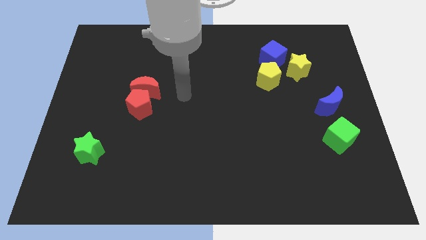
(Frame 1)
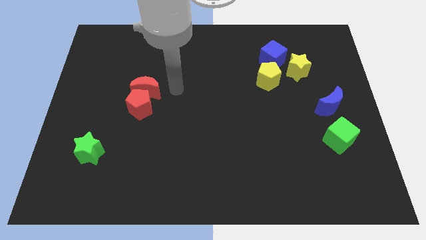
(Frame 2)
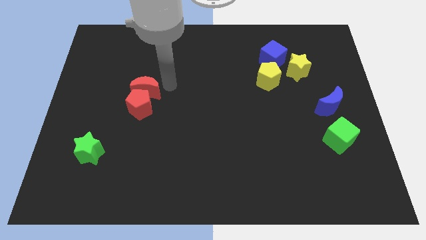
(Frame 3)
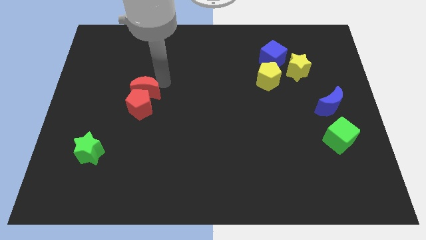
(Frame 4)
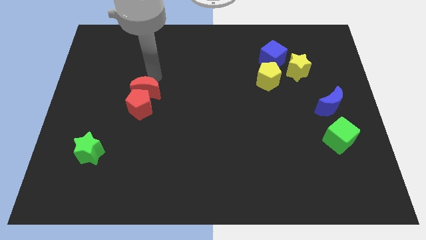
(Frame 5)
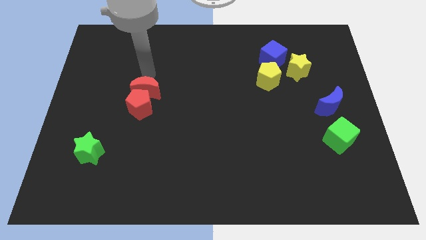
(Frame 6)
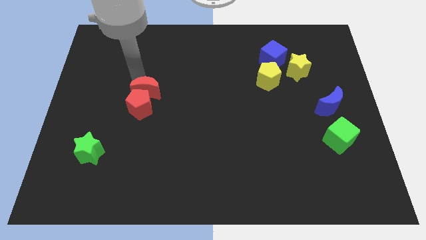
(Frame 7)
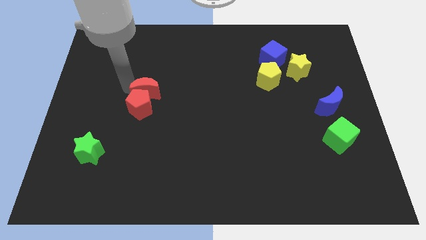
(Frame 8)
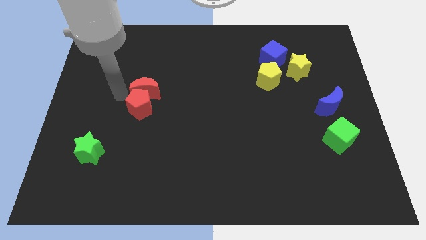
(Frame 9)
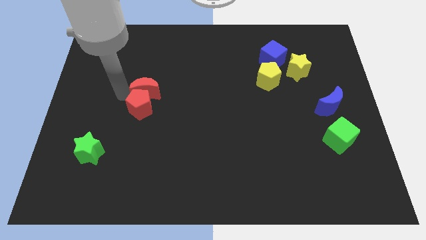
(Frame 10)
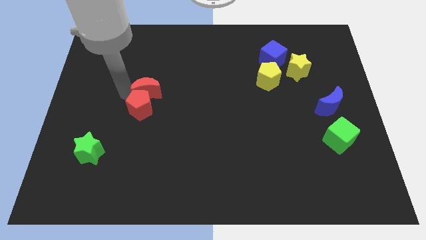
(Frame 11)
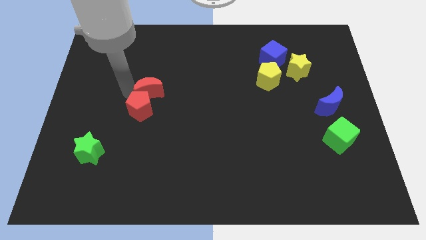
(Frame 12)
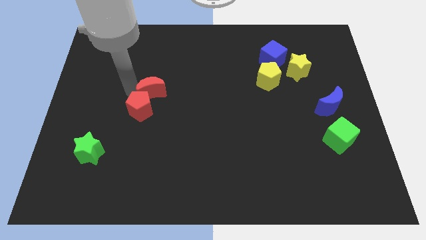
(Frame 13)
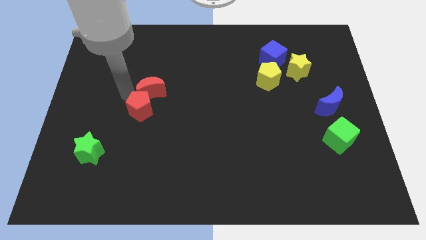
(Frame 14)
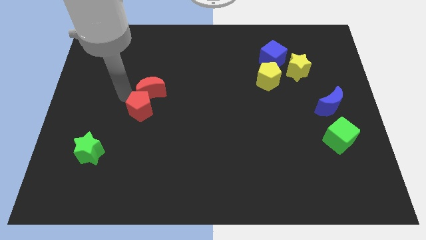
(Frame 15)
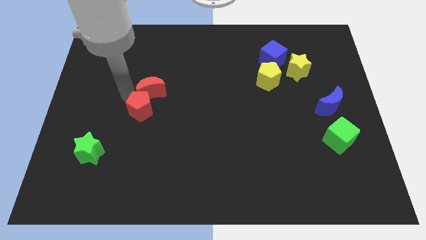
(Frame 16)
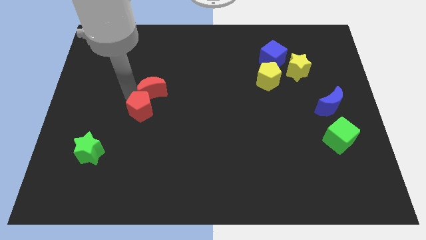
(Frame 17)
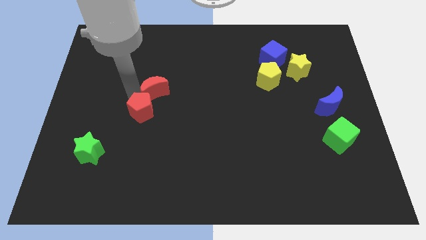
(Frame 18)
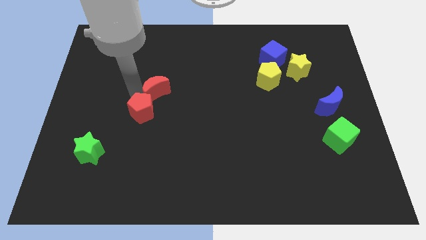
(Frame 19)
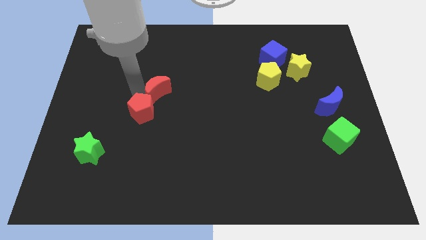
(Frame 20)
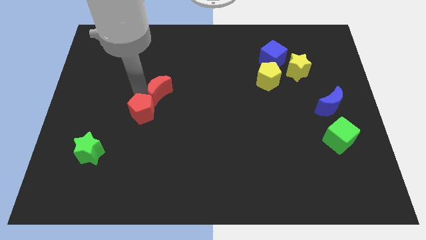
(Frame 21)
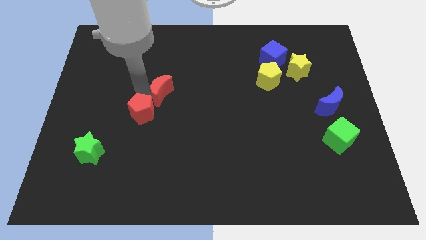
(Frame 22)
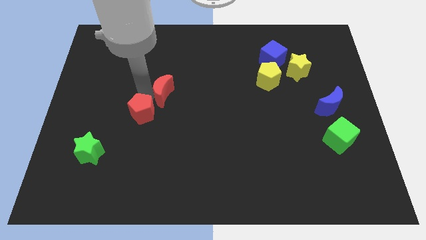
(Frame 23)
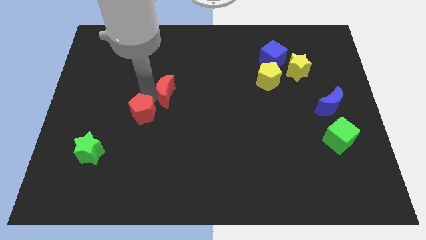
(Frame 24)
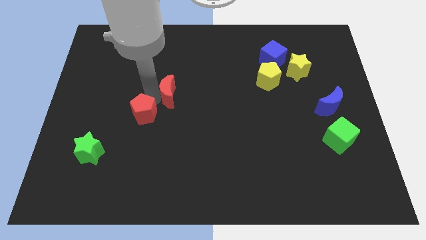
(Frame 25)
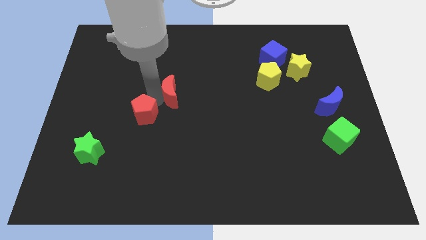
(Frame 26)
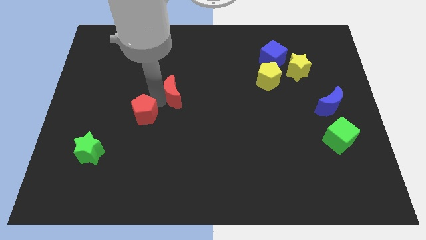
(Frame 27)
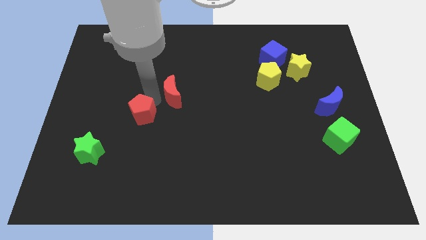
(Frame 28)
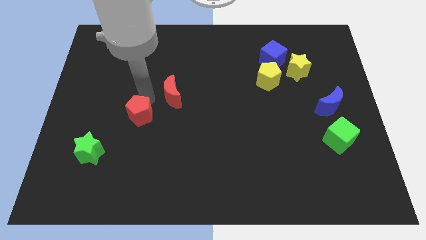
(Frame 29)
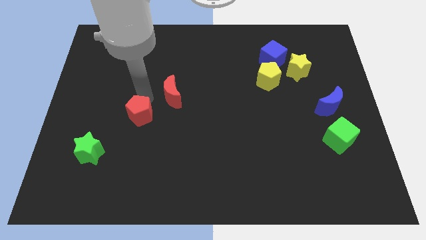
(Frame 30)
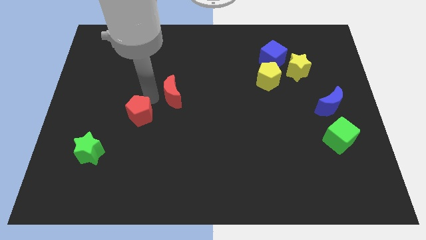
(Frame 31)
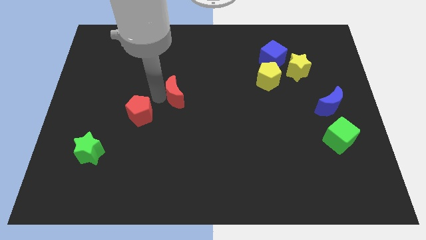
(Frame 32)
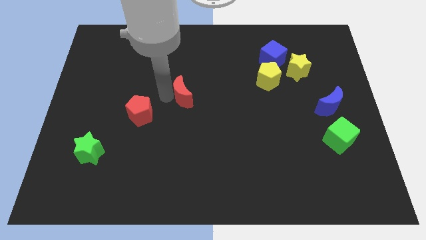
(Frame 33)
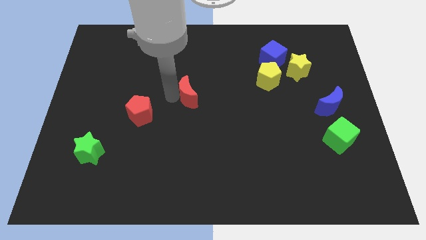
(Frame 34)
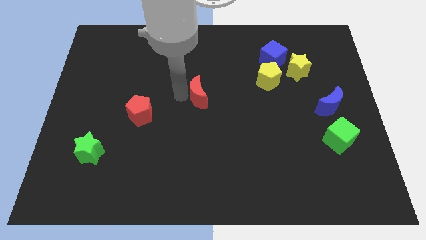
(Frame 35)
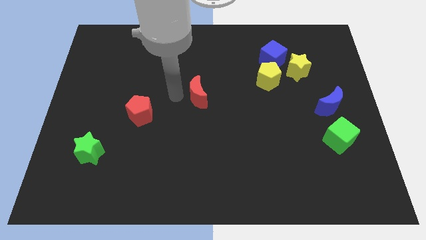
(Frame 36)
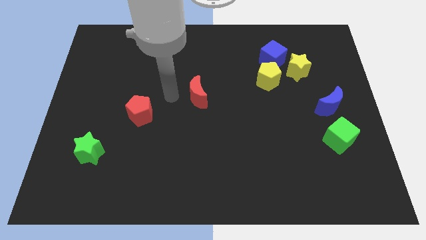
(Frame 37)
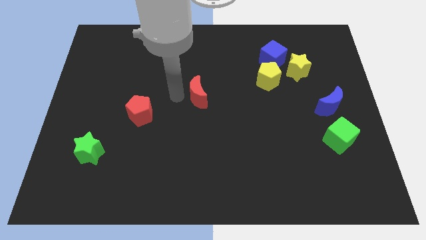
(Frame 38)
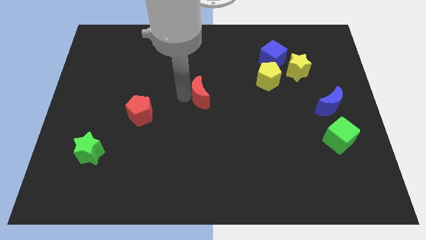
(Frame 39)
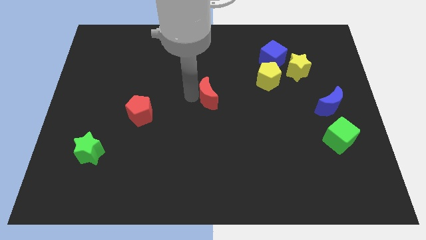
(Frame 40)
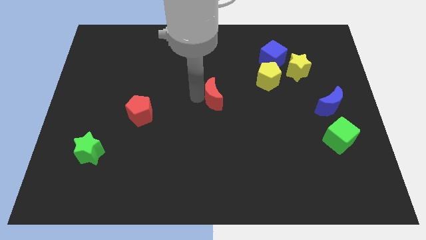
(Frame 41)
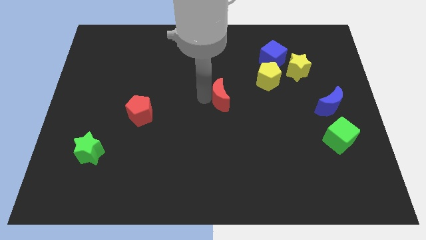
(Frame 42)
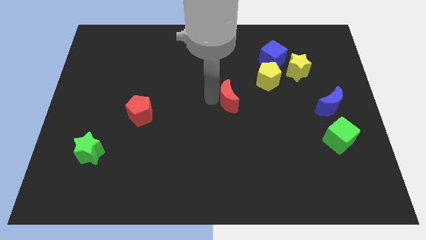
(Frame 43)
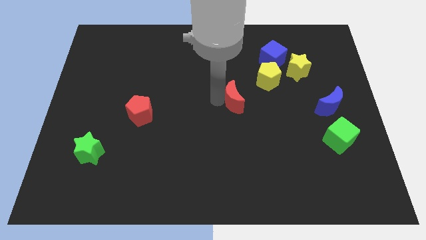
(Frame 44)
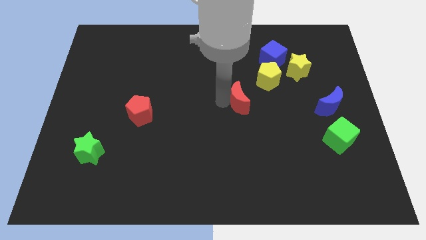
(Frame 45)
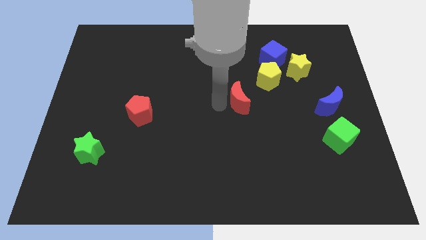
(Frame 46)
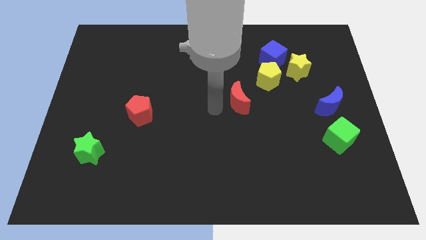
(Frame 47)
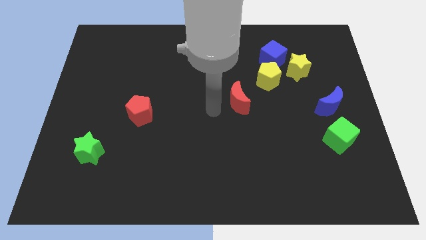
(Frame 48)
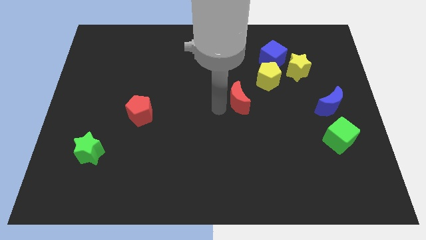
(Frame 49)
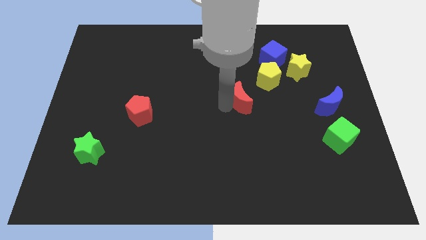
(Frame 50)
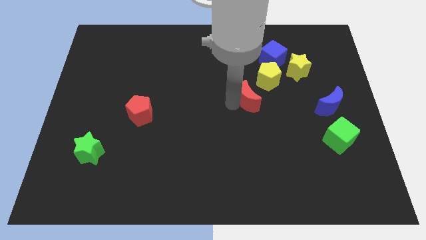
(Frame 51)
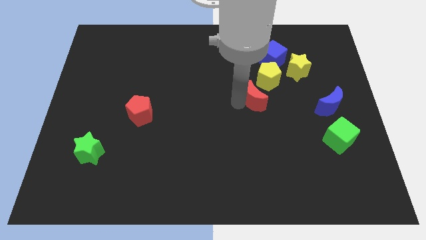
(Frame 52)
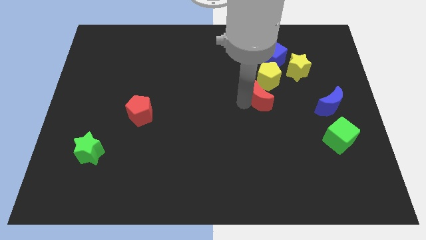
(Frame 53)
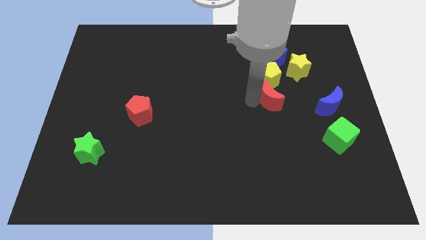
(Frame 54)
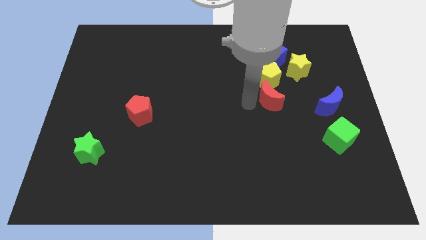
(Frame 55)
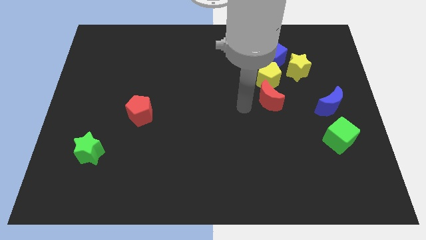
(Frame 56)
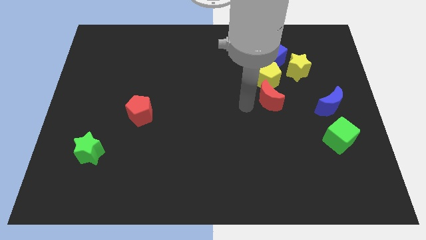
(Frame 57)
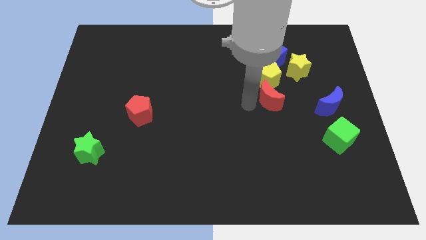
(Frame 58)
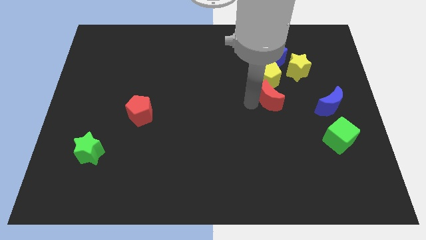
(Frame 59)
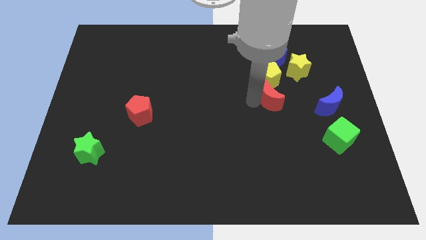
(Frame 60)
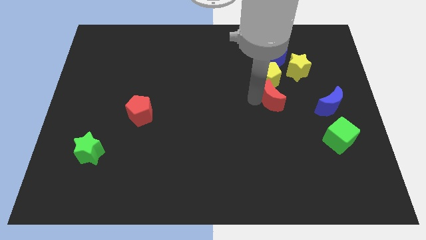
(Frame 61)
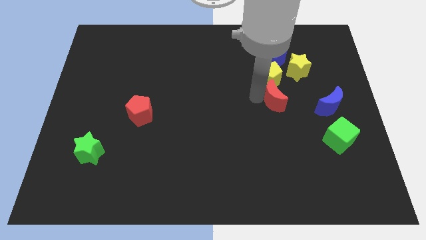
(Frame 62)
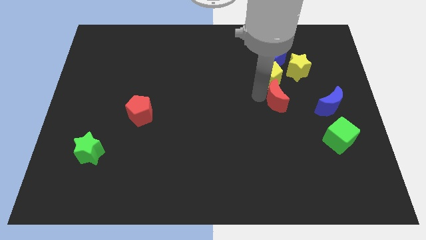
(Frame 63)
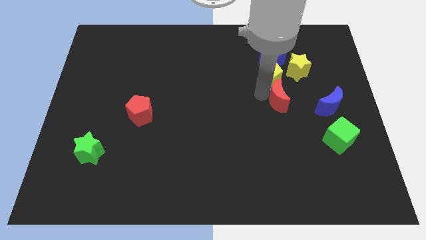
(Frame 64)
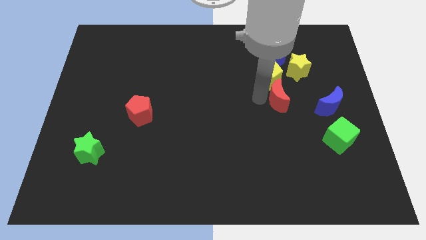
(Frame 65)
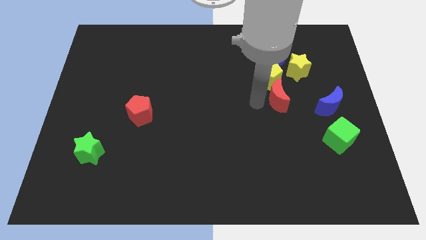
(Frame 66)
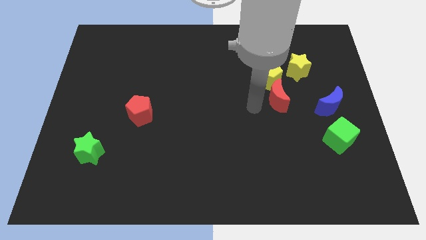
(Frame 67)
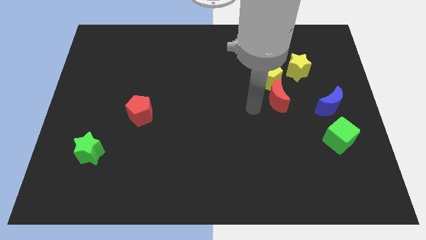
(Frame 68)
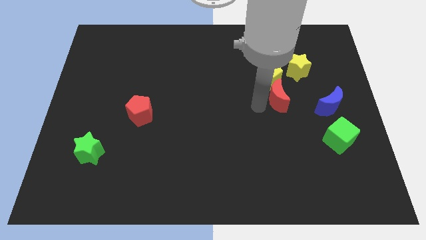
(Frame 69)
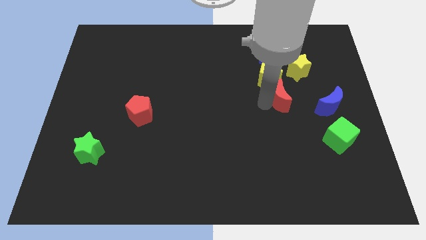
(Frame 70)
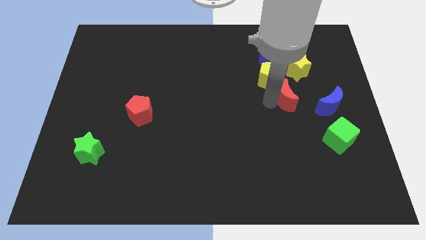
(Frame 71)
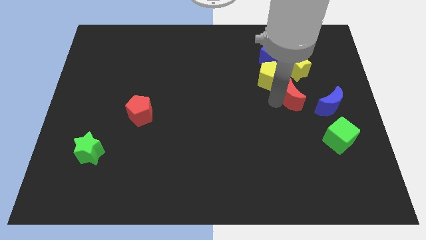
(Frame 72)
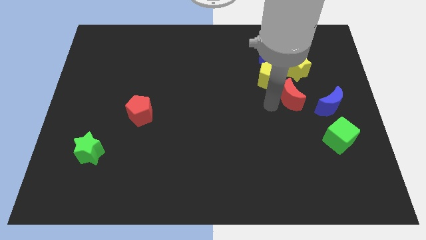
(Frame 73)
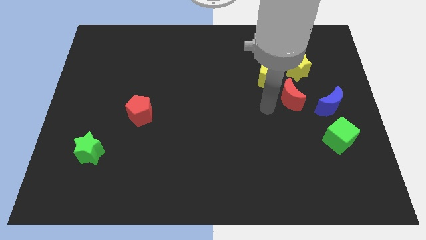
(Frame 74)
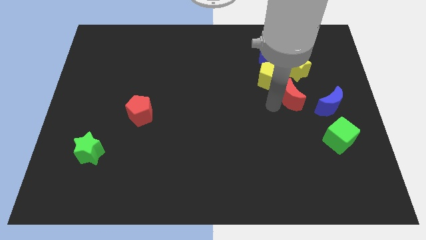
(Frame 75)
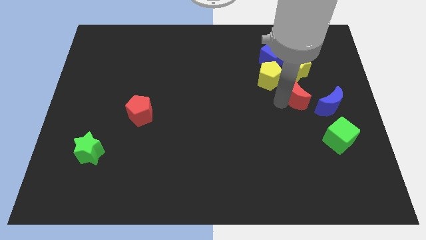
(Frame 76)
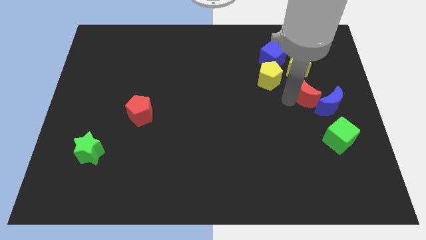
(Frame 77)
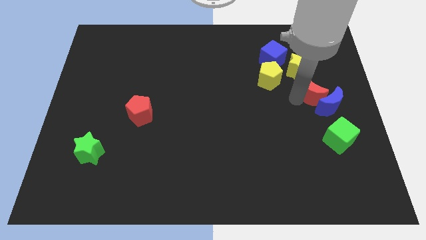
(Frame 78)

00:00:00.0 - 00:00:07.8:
move the red moon diagonally down and to the right of the yellow star
